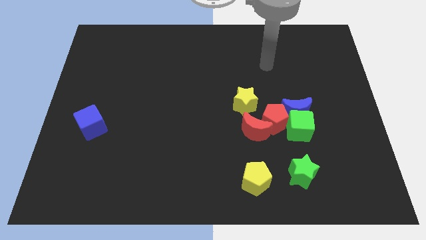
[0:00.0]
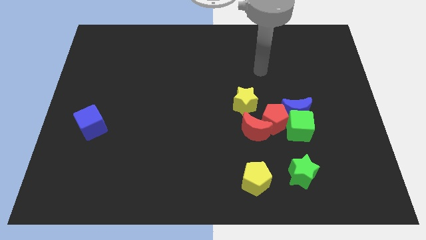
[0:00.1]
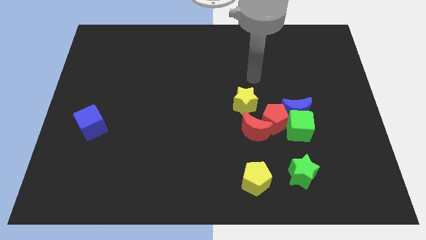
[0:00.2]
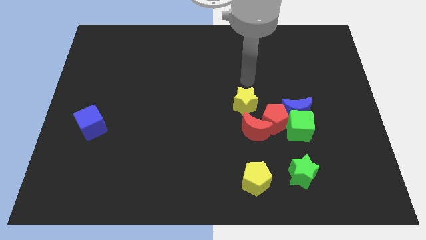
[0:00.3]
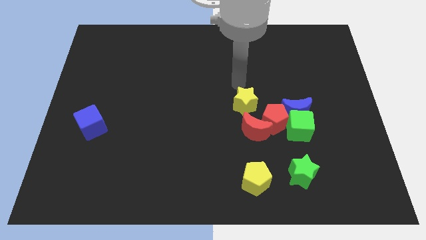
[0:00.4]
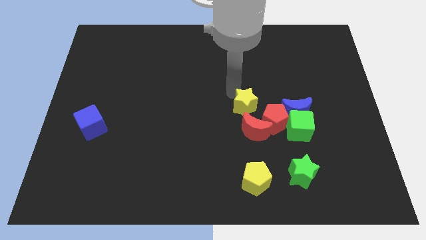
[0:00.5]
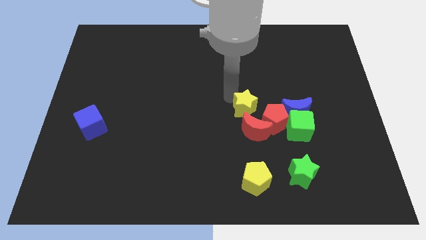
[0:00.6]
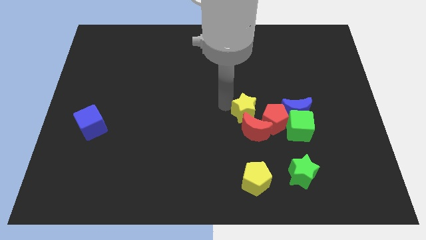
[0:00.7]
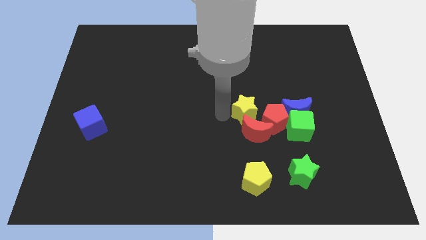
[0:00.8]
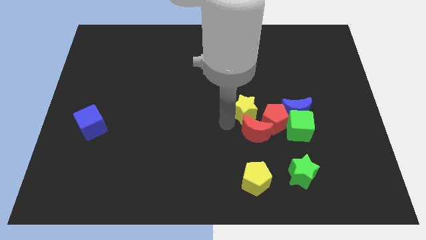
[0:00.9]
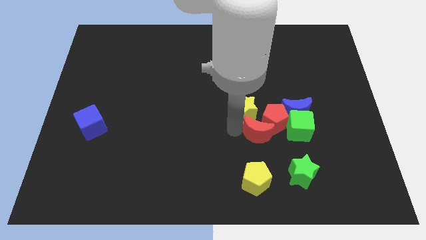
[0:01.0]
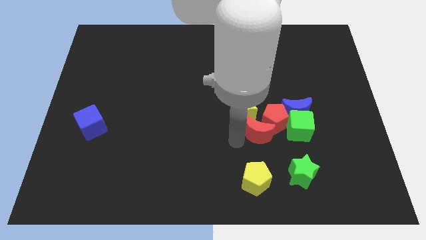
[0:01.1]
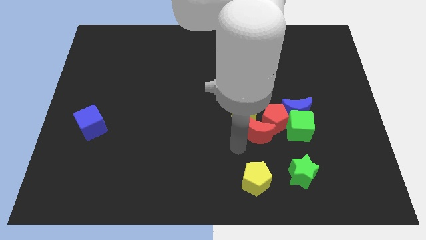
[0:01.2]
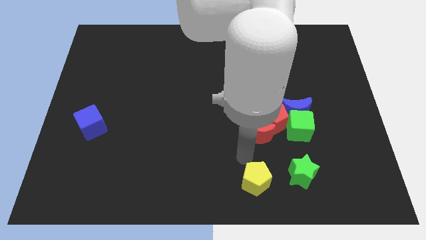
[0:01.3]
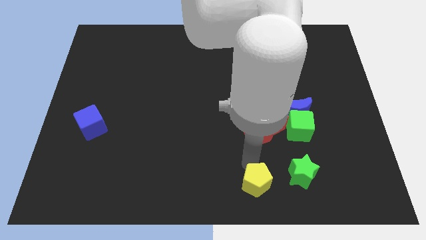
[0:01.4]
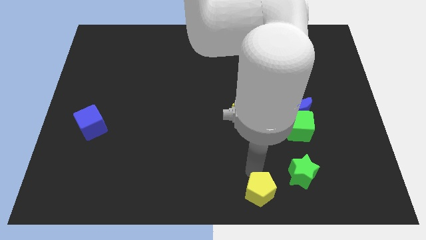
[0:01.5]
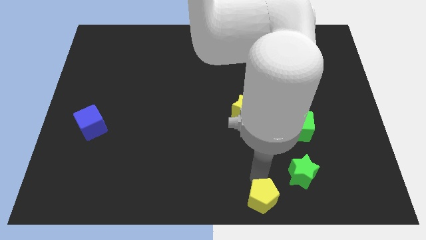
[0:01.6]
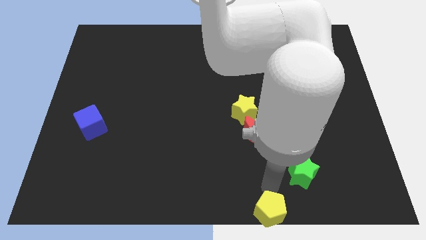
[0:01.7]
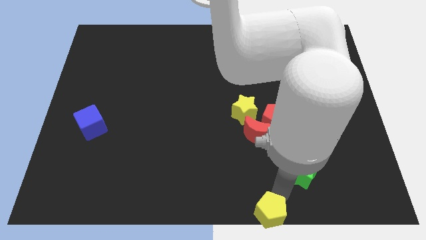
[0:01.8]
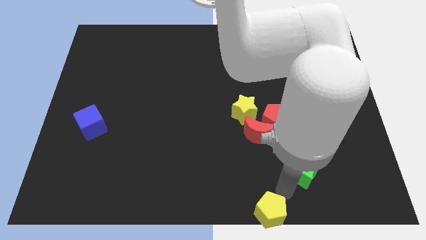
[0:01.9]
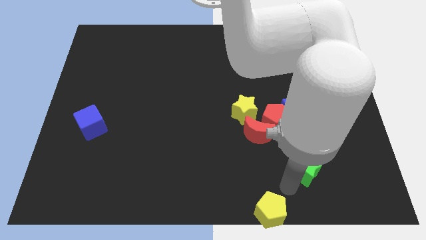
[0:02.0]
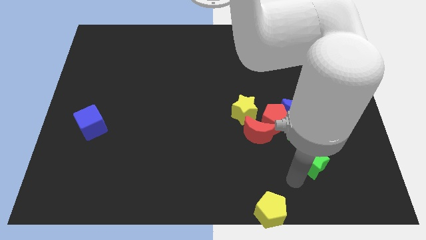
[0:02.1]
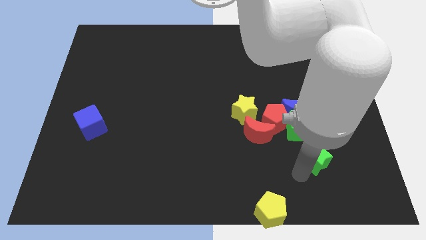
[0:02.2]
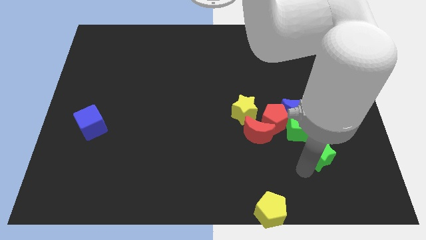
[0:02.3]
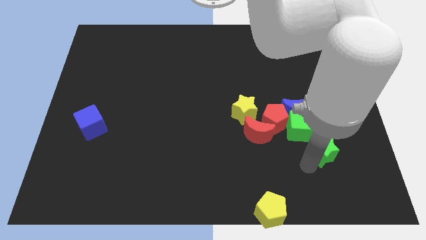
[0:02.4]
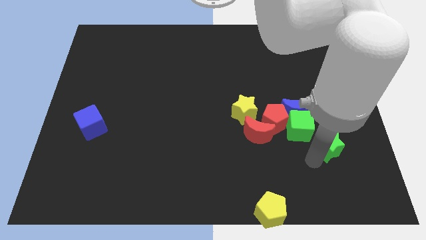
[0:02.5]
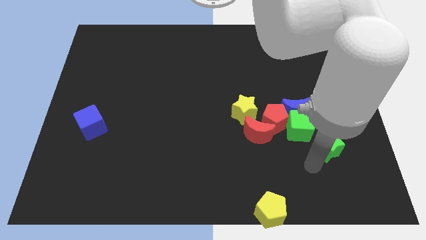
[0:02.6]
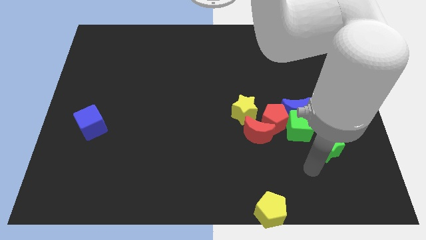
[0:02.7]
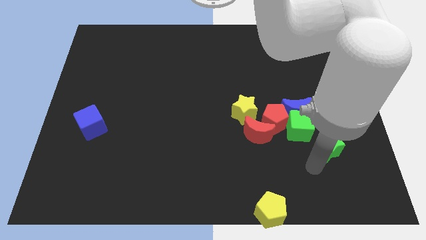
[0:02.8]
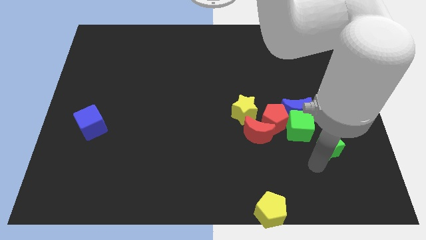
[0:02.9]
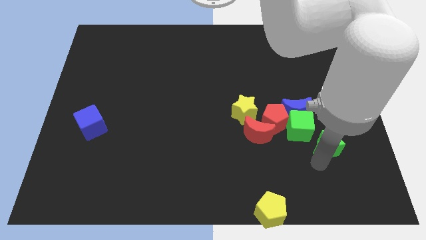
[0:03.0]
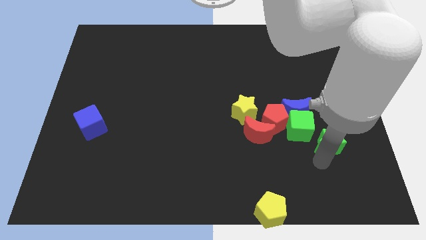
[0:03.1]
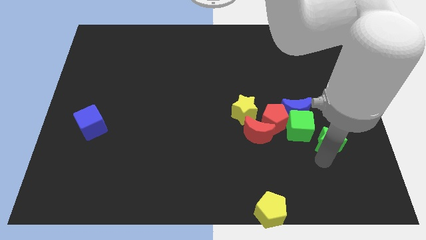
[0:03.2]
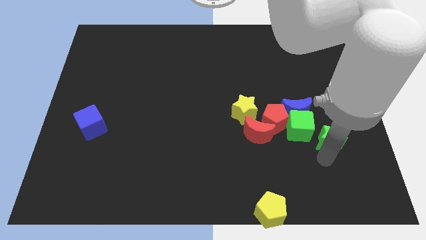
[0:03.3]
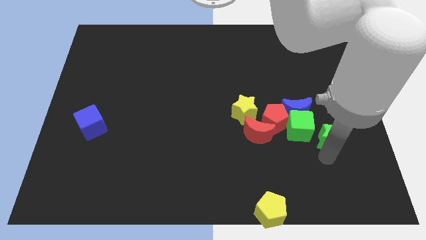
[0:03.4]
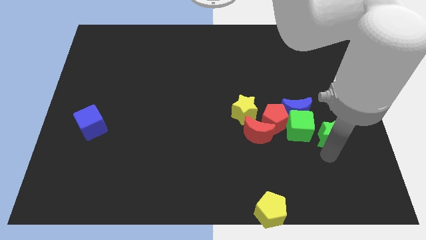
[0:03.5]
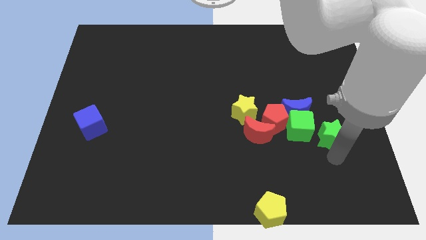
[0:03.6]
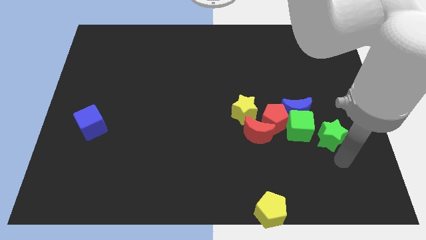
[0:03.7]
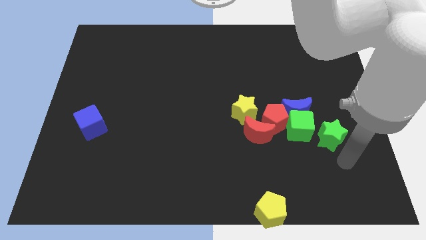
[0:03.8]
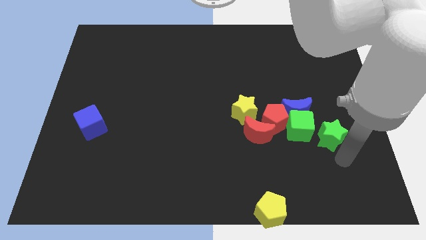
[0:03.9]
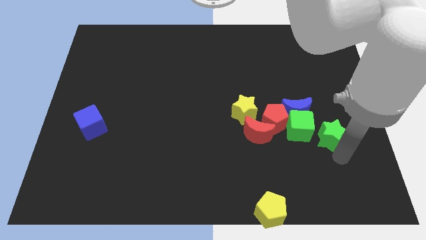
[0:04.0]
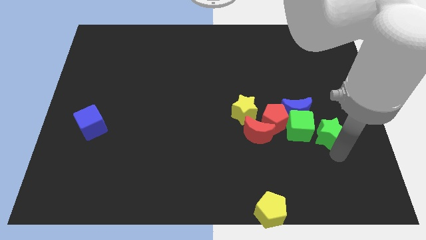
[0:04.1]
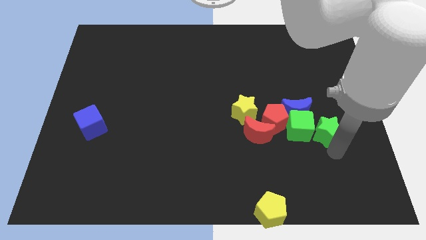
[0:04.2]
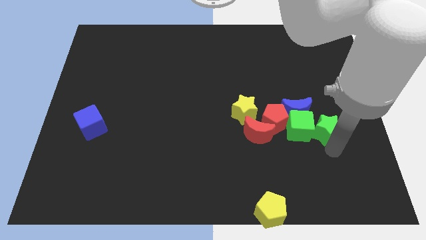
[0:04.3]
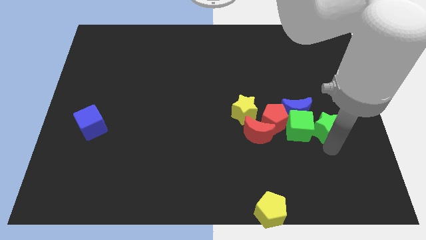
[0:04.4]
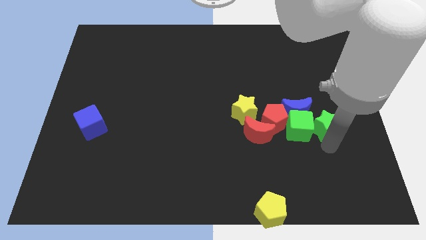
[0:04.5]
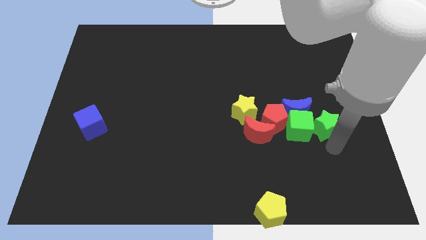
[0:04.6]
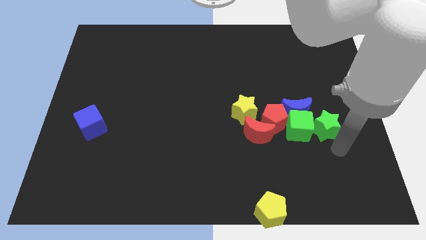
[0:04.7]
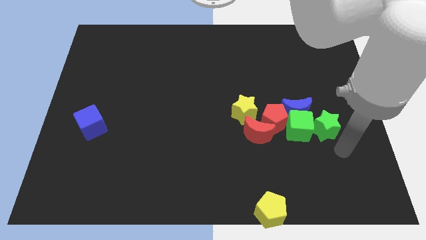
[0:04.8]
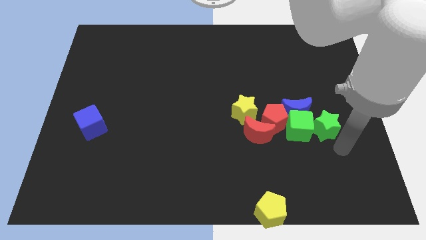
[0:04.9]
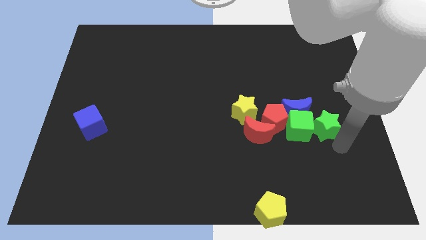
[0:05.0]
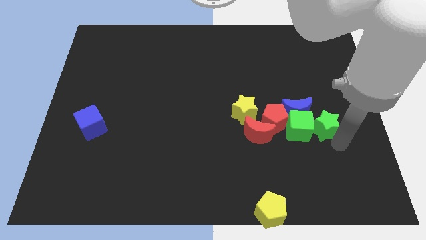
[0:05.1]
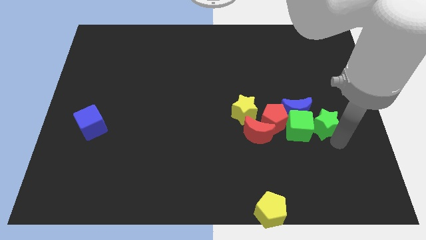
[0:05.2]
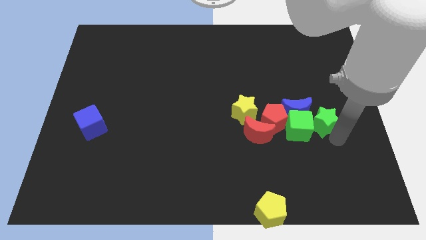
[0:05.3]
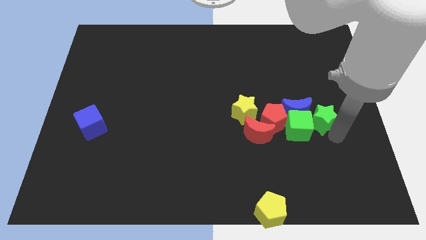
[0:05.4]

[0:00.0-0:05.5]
put the green star to the blue moon
